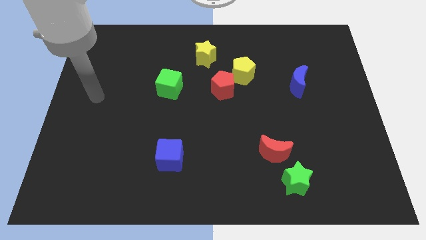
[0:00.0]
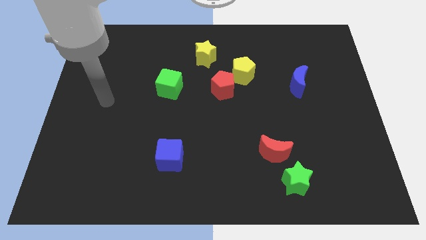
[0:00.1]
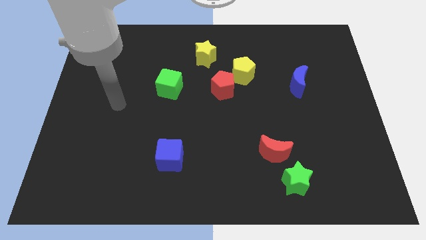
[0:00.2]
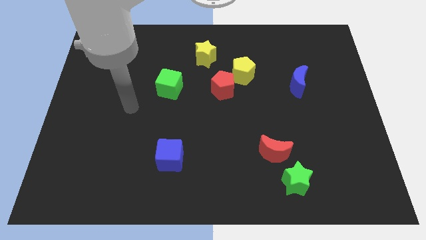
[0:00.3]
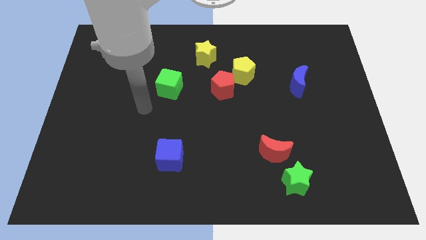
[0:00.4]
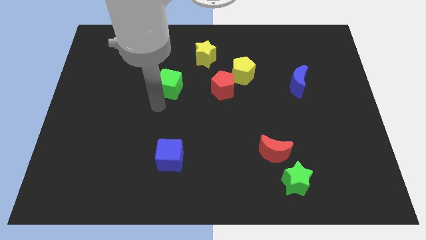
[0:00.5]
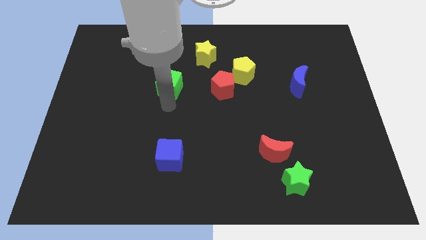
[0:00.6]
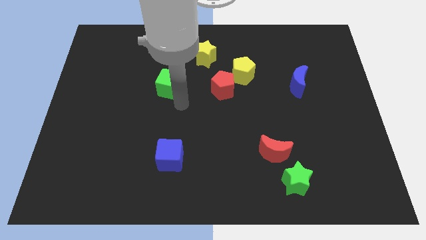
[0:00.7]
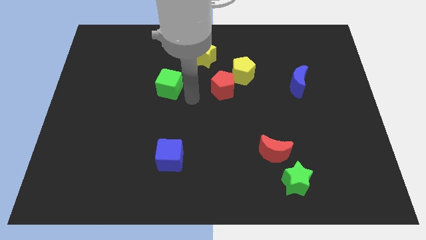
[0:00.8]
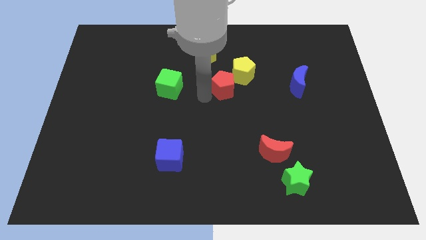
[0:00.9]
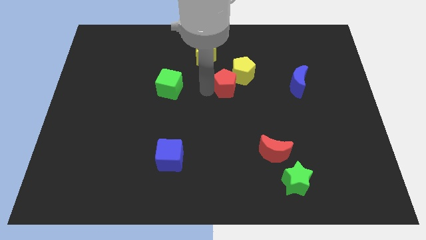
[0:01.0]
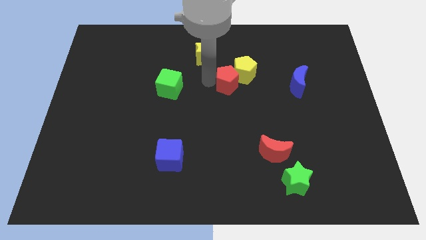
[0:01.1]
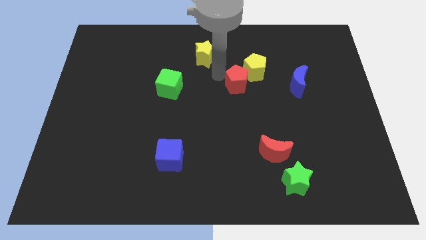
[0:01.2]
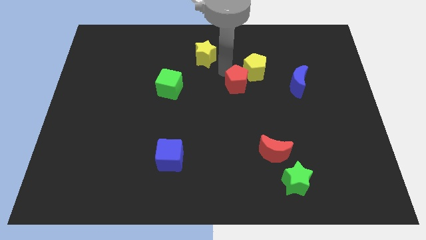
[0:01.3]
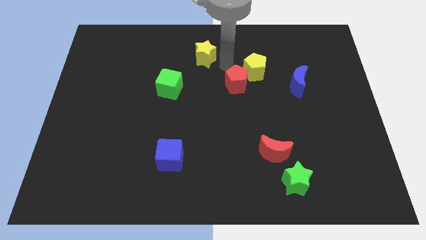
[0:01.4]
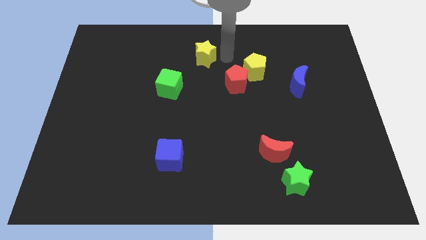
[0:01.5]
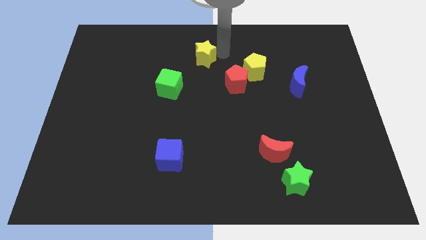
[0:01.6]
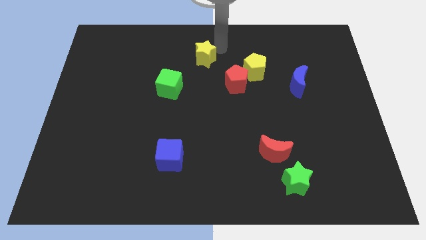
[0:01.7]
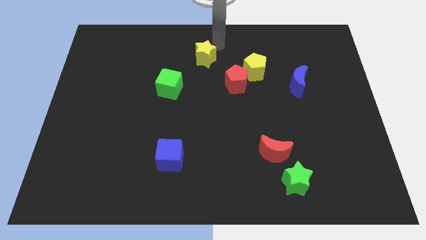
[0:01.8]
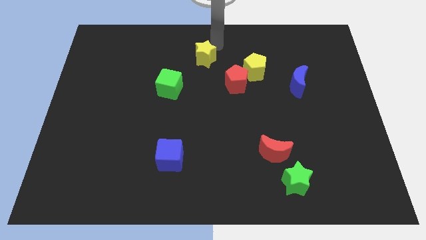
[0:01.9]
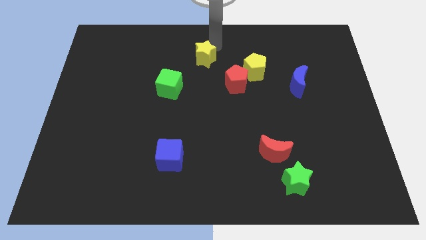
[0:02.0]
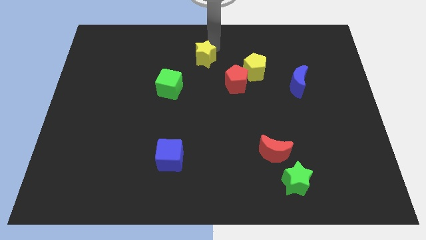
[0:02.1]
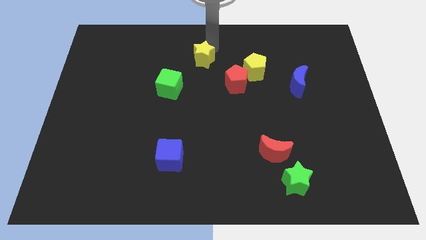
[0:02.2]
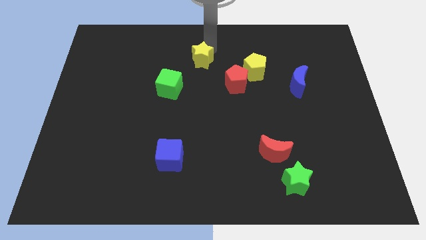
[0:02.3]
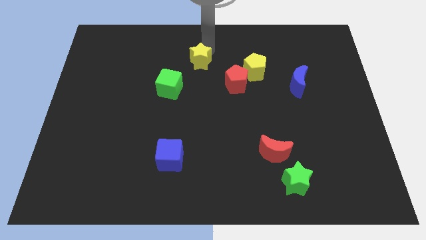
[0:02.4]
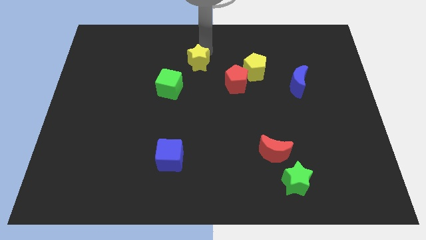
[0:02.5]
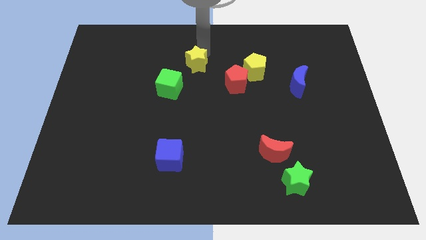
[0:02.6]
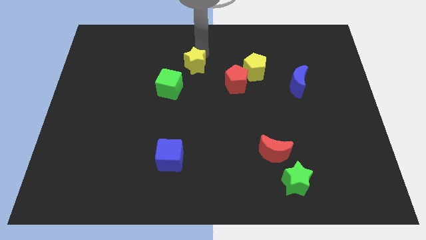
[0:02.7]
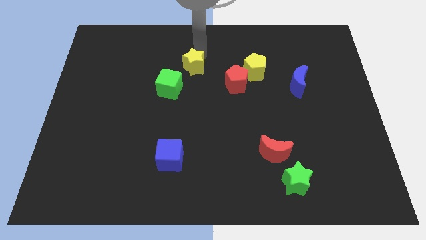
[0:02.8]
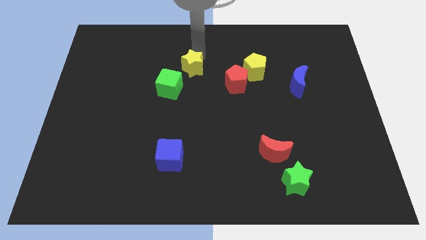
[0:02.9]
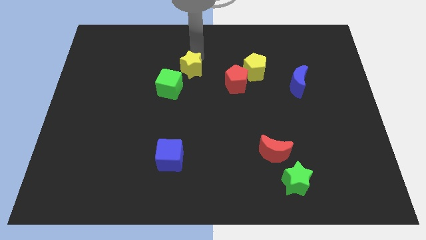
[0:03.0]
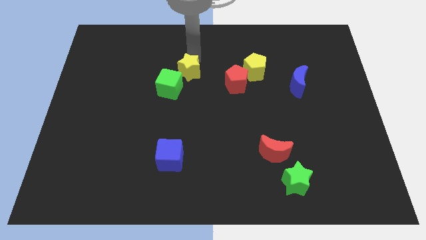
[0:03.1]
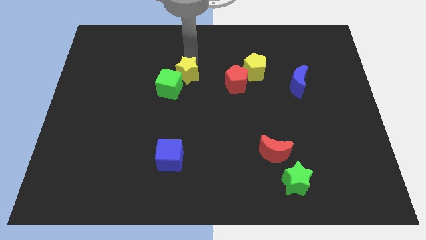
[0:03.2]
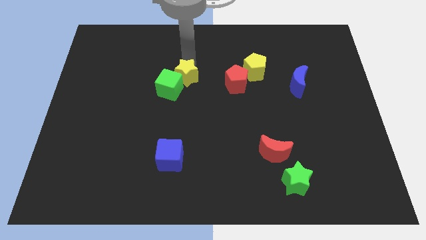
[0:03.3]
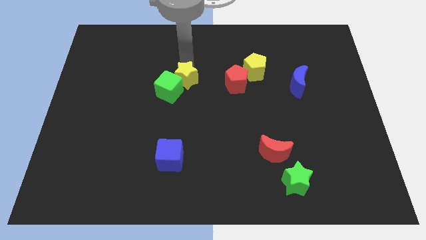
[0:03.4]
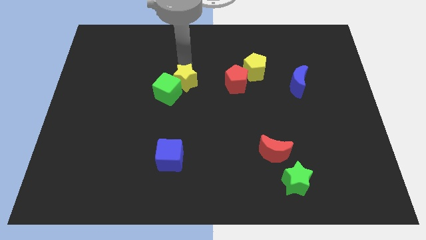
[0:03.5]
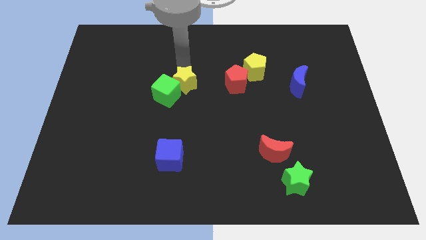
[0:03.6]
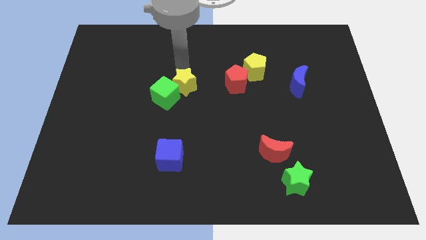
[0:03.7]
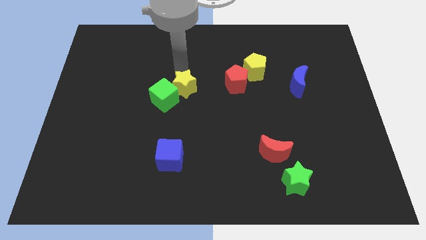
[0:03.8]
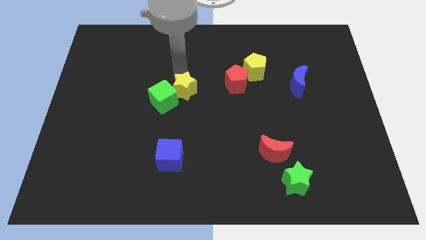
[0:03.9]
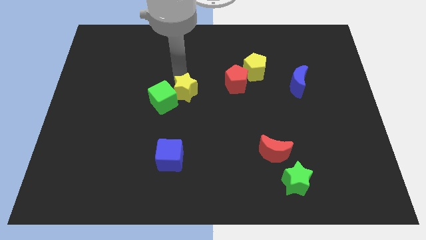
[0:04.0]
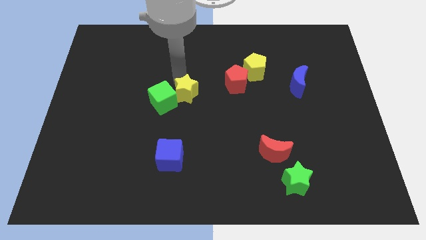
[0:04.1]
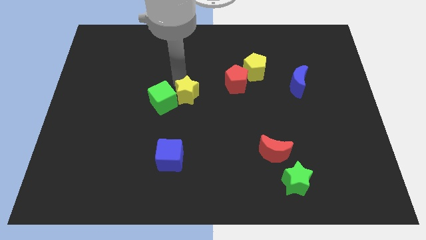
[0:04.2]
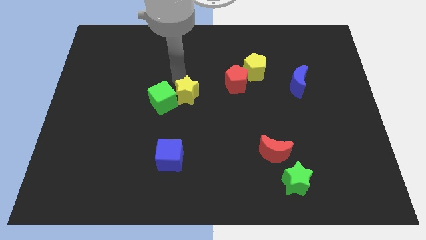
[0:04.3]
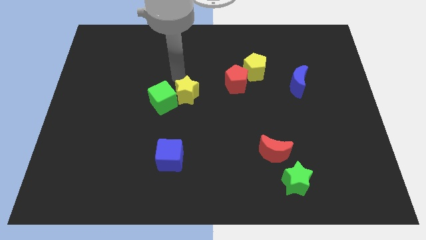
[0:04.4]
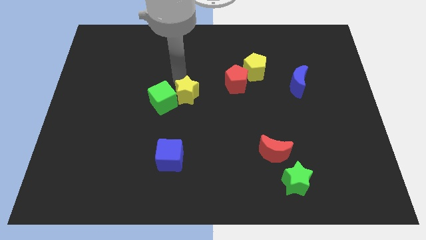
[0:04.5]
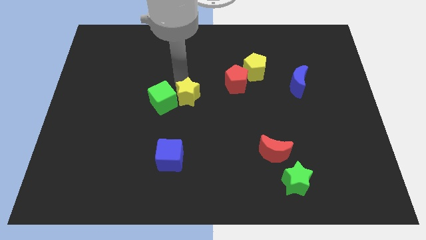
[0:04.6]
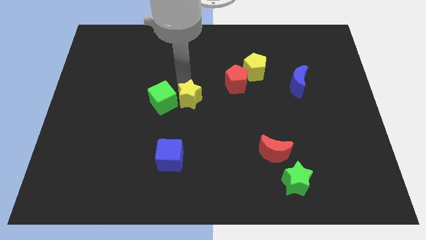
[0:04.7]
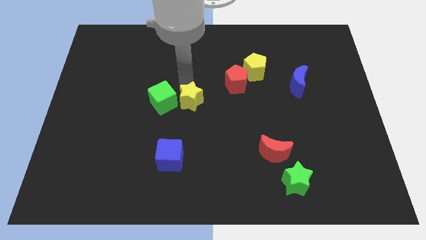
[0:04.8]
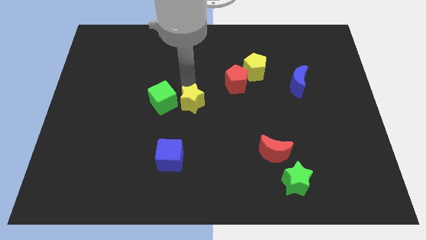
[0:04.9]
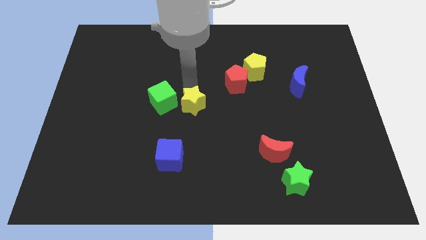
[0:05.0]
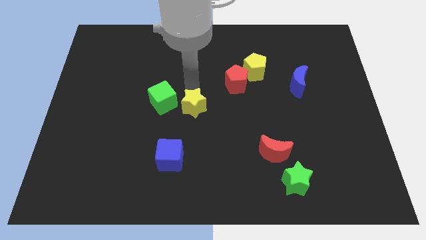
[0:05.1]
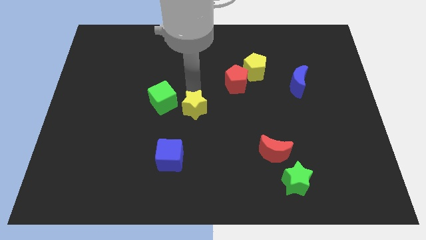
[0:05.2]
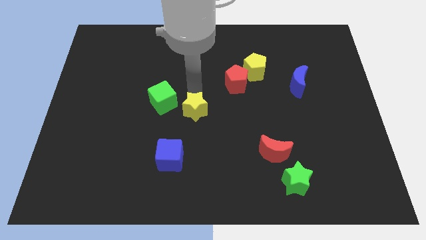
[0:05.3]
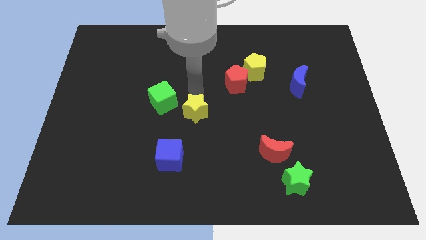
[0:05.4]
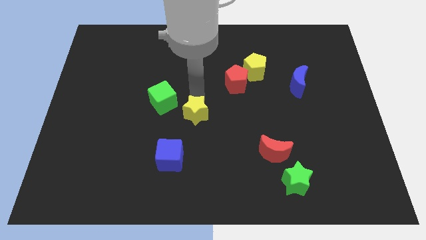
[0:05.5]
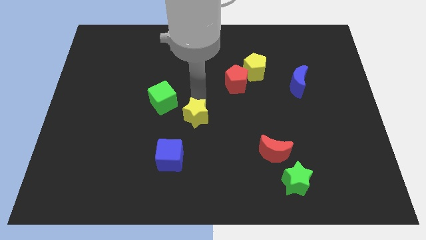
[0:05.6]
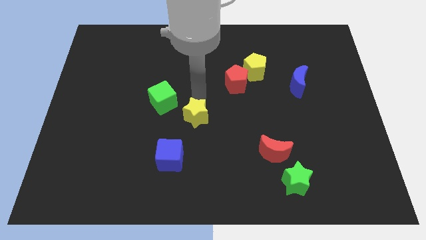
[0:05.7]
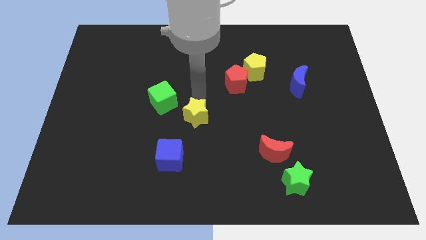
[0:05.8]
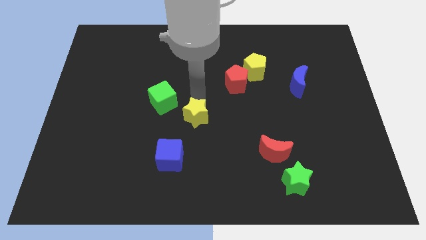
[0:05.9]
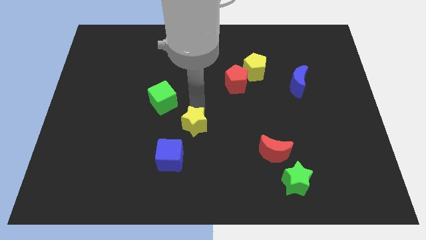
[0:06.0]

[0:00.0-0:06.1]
push the yellow star down

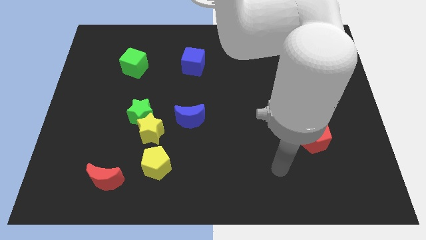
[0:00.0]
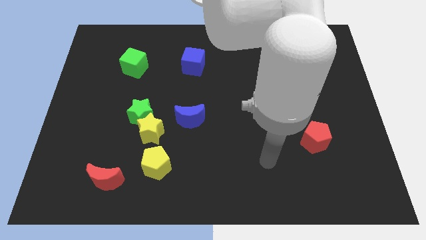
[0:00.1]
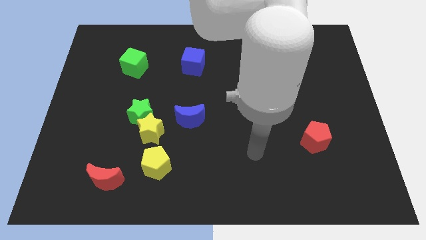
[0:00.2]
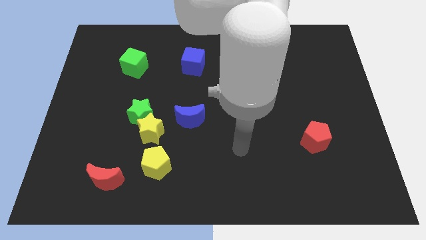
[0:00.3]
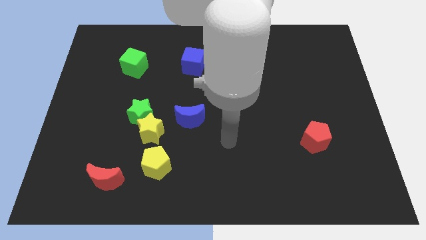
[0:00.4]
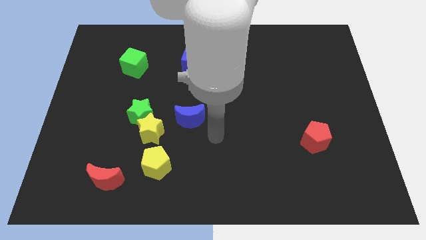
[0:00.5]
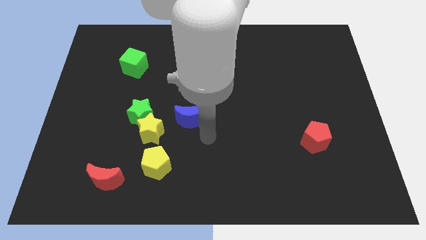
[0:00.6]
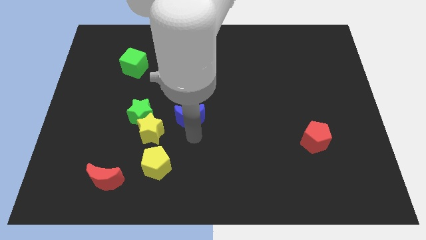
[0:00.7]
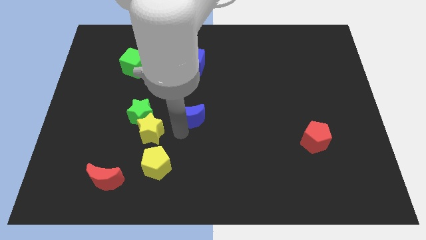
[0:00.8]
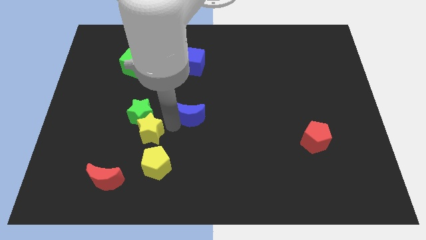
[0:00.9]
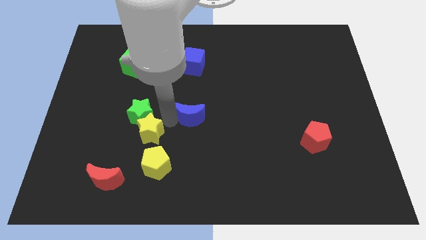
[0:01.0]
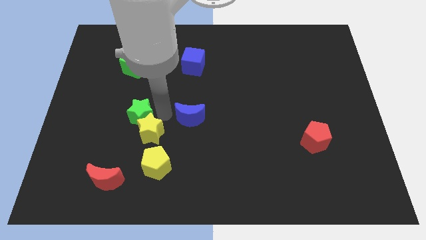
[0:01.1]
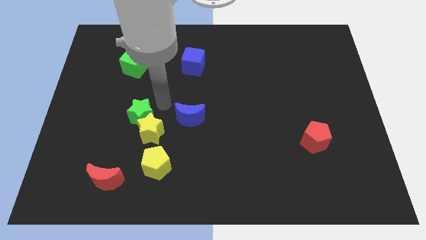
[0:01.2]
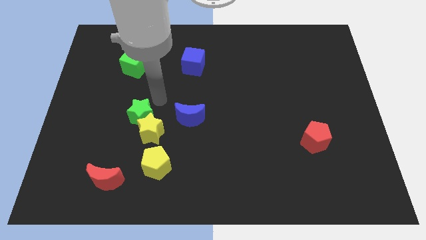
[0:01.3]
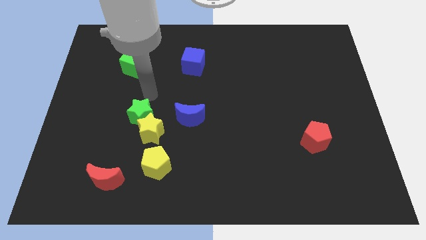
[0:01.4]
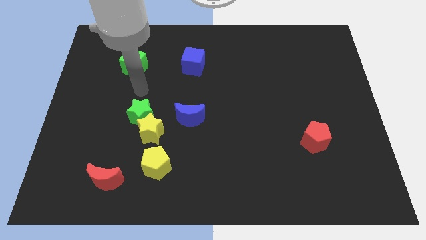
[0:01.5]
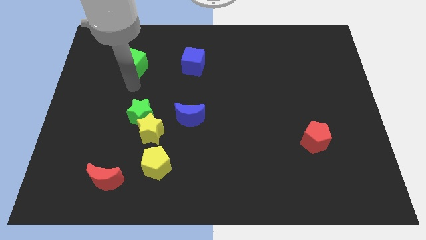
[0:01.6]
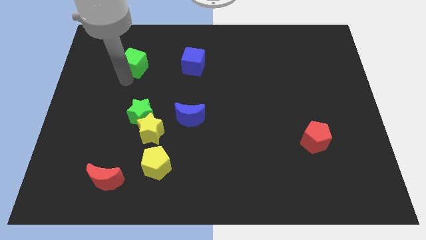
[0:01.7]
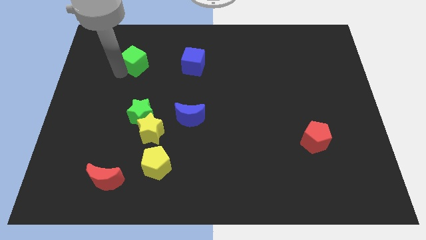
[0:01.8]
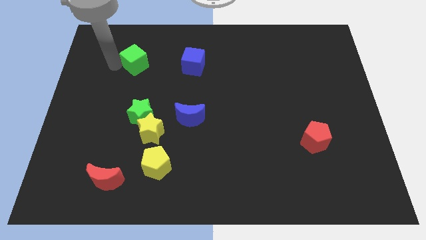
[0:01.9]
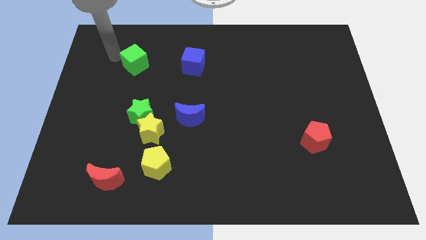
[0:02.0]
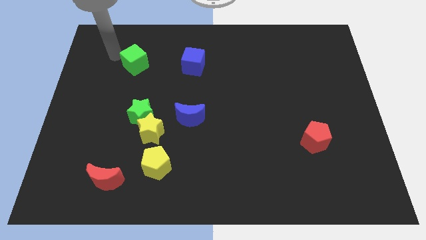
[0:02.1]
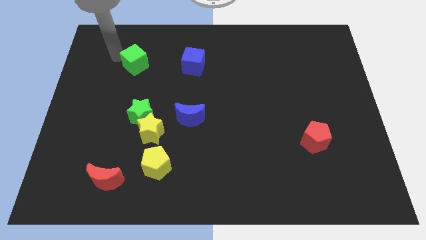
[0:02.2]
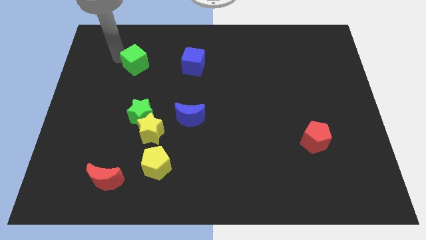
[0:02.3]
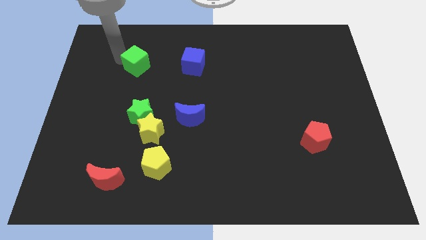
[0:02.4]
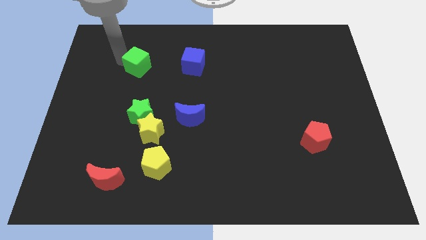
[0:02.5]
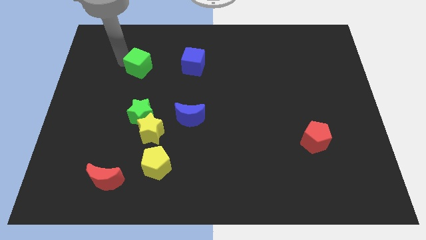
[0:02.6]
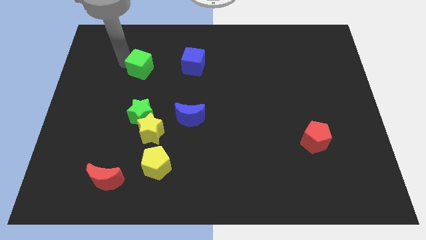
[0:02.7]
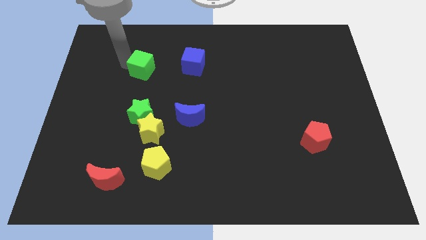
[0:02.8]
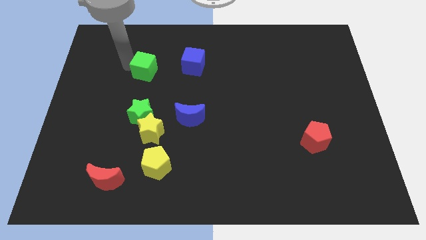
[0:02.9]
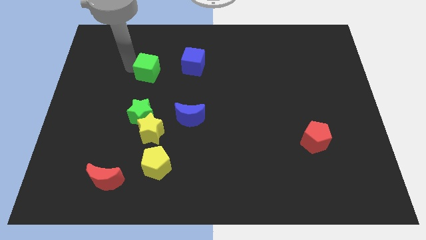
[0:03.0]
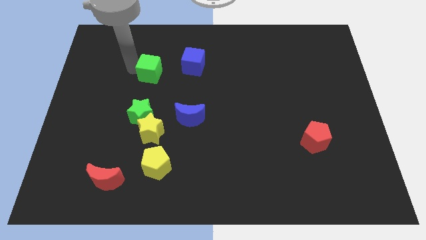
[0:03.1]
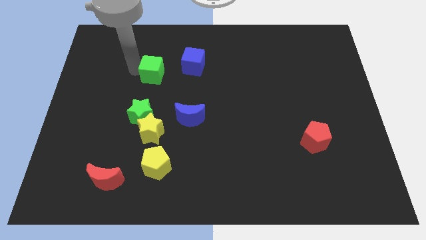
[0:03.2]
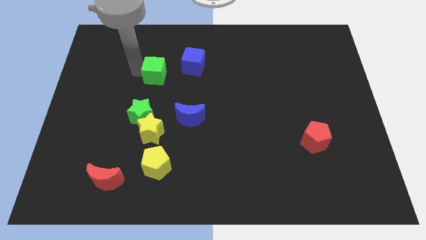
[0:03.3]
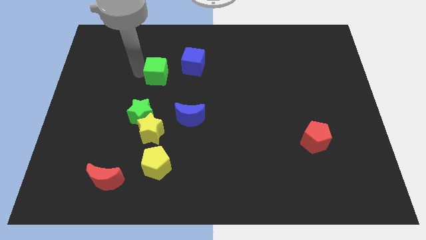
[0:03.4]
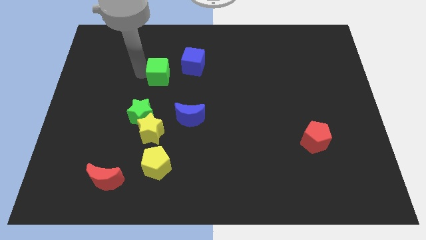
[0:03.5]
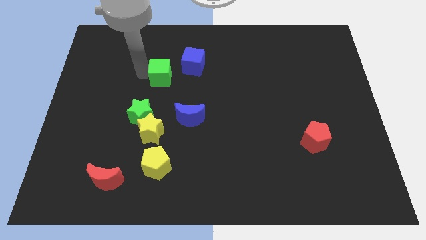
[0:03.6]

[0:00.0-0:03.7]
move the green cube right slightly
